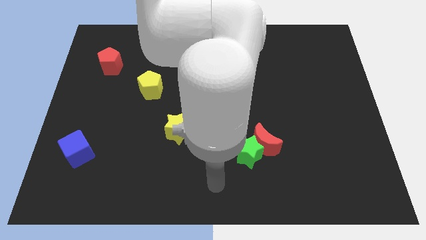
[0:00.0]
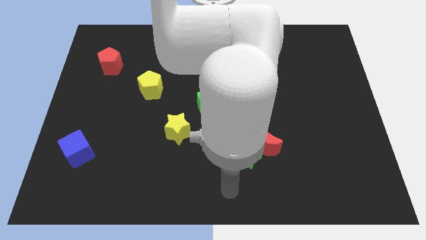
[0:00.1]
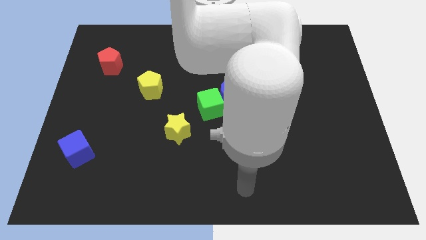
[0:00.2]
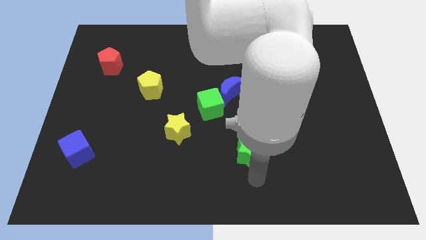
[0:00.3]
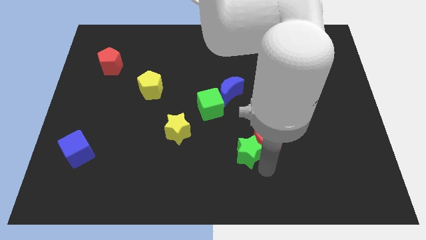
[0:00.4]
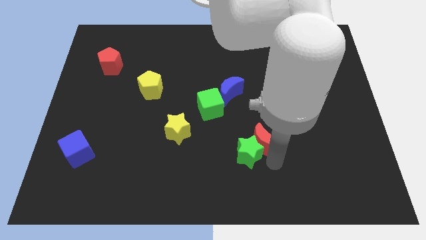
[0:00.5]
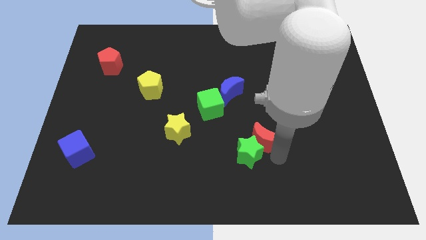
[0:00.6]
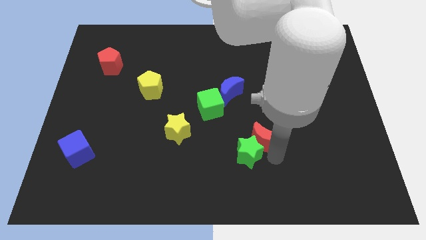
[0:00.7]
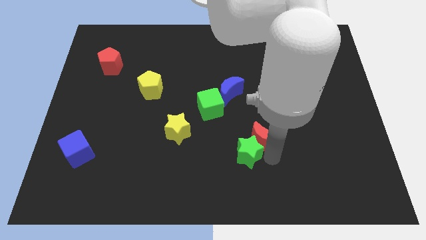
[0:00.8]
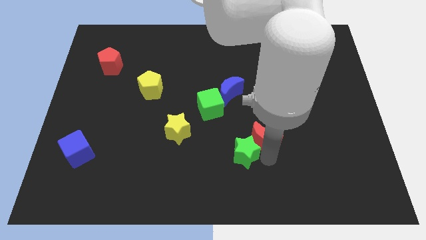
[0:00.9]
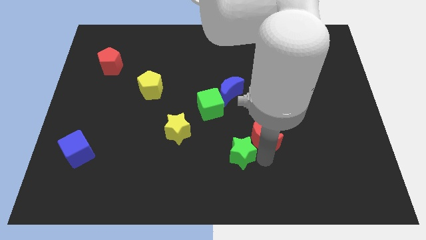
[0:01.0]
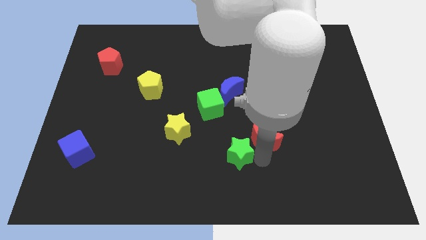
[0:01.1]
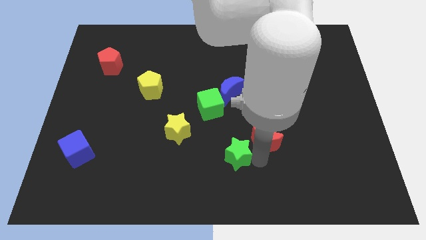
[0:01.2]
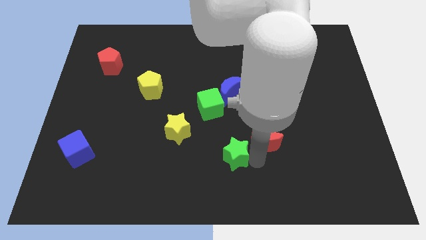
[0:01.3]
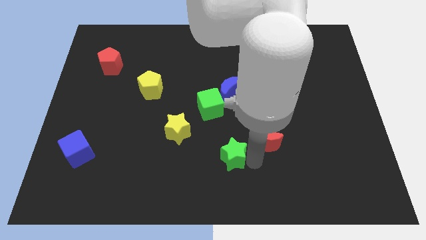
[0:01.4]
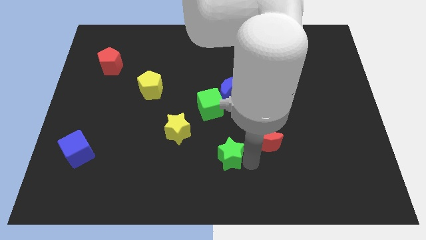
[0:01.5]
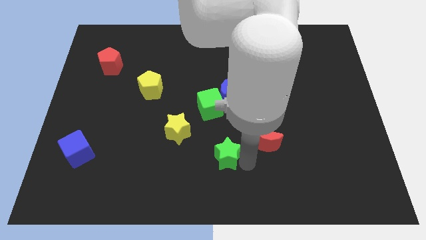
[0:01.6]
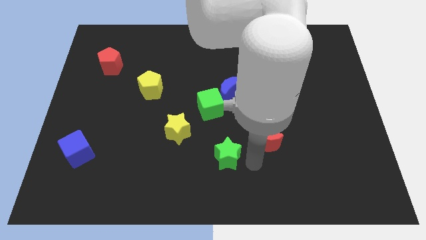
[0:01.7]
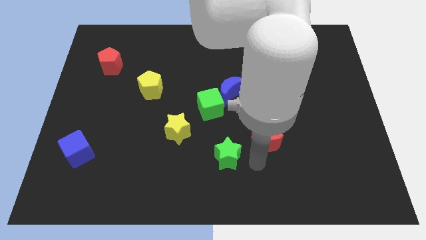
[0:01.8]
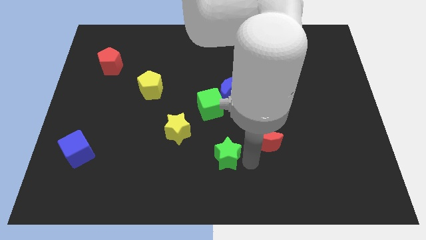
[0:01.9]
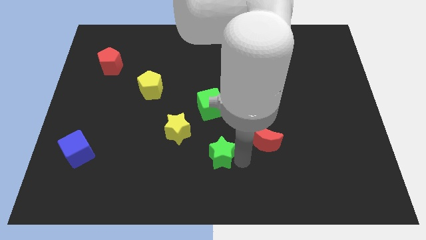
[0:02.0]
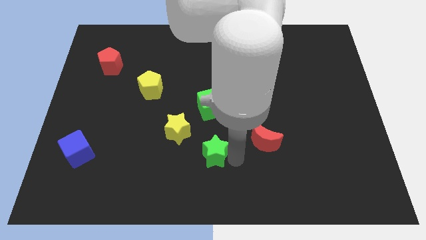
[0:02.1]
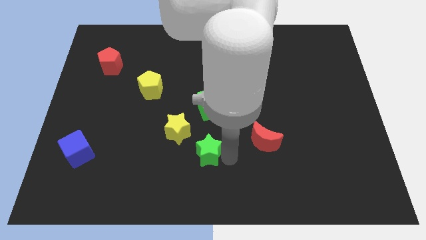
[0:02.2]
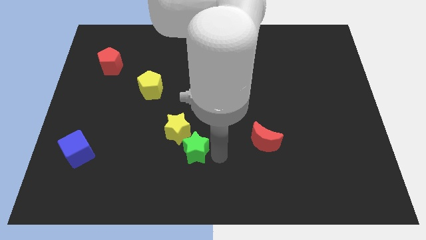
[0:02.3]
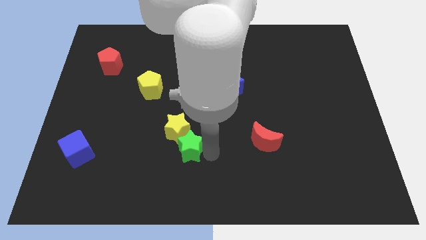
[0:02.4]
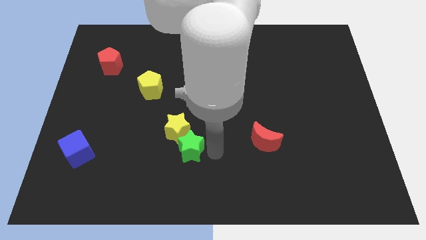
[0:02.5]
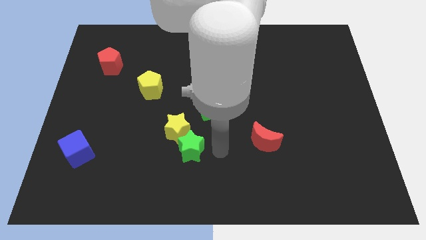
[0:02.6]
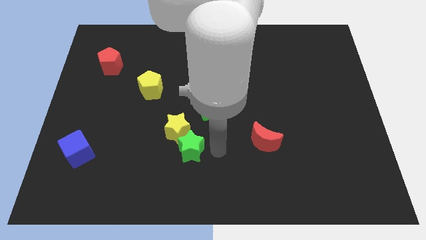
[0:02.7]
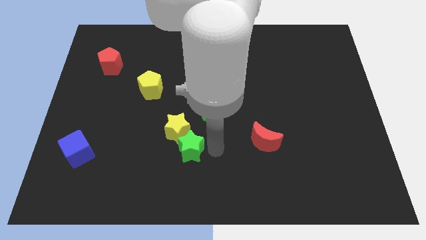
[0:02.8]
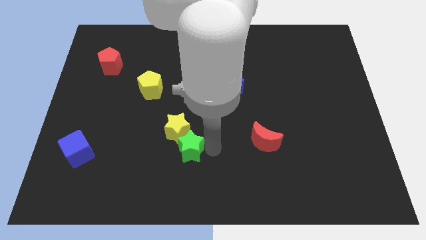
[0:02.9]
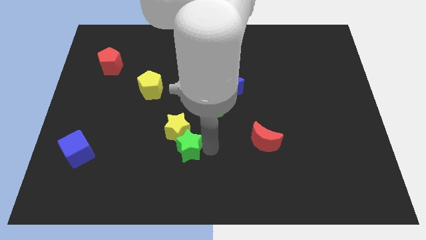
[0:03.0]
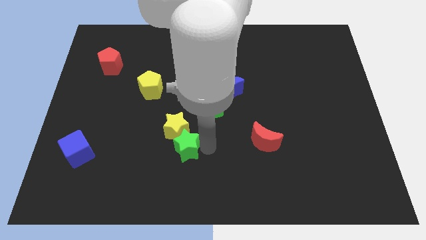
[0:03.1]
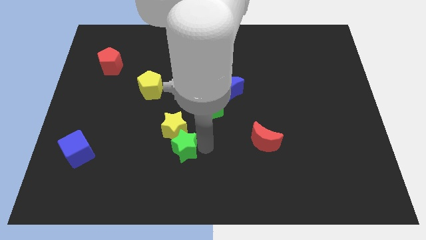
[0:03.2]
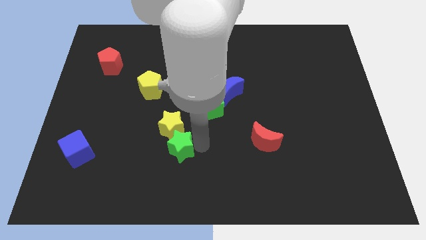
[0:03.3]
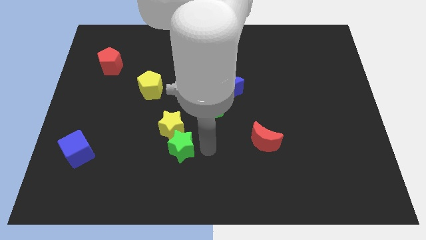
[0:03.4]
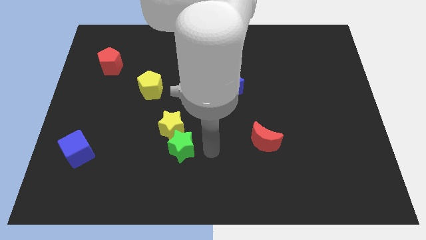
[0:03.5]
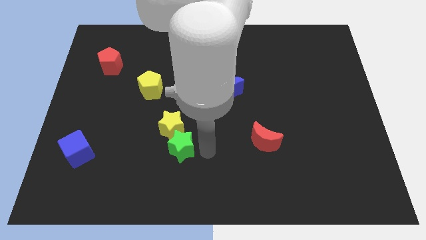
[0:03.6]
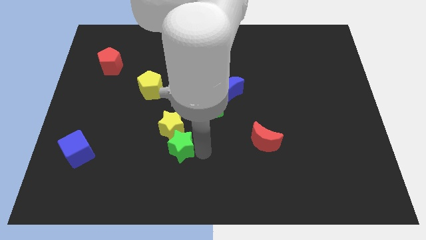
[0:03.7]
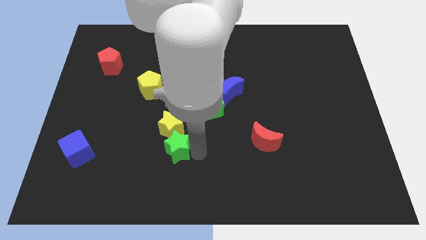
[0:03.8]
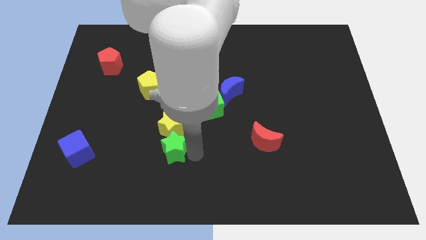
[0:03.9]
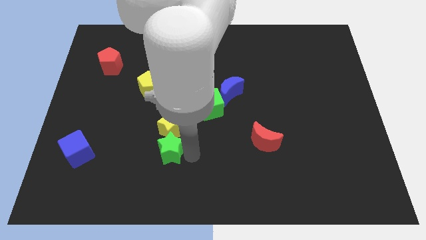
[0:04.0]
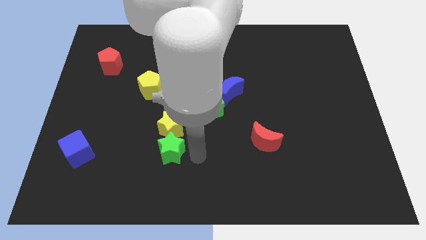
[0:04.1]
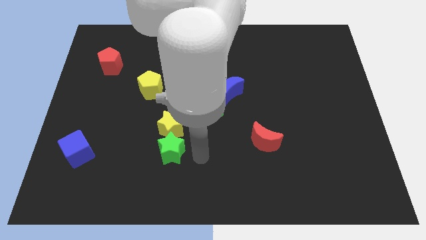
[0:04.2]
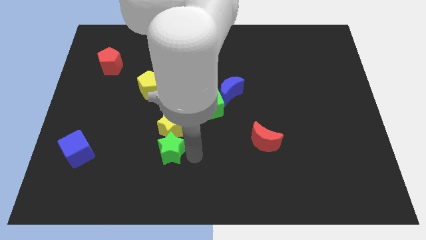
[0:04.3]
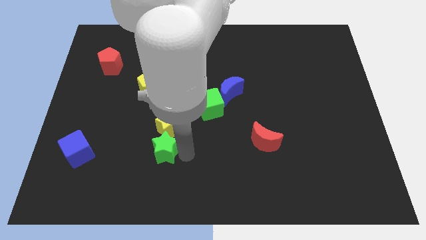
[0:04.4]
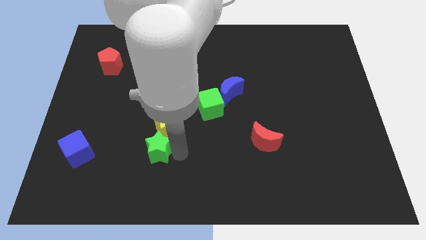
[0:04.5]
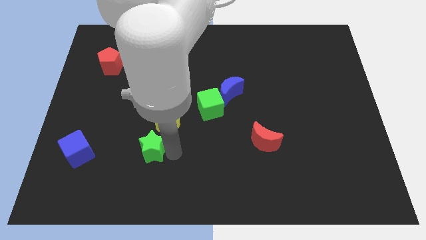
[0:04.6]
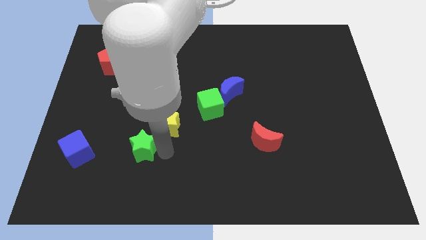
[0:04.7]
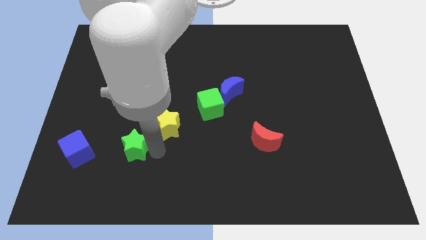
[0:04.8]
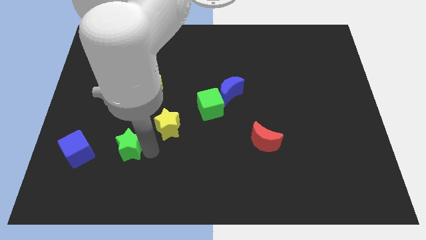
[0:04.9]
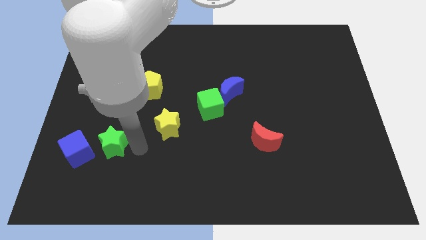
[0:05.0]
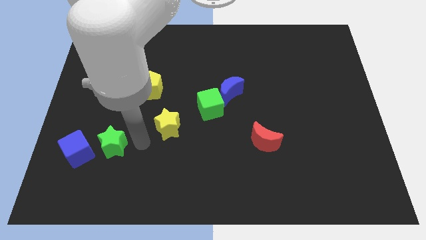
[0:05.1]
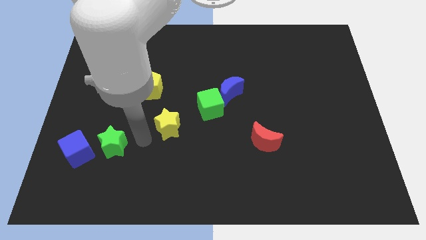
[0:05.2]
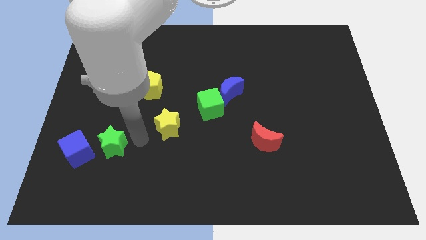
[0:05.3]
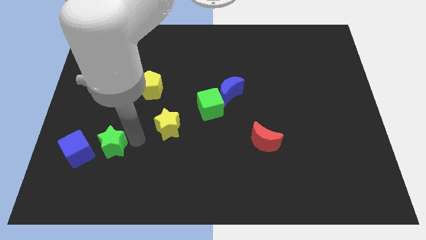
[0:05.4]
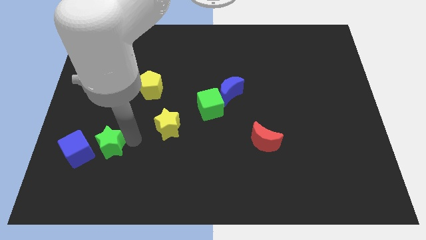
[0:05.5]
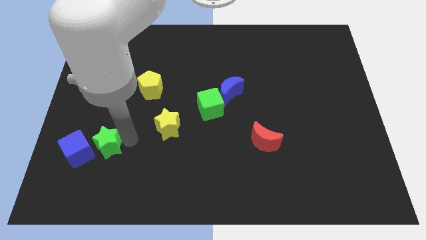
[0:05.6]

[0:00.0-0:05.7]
put the green star close to the blue cube

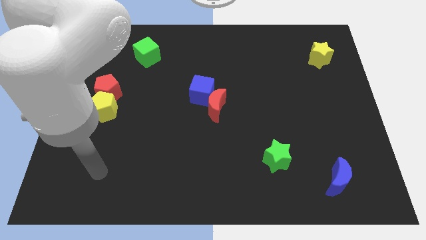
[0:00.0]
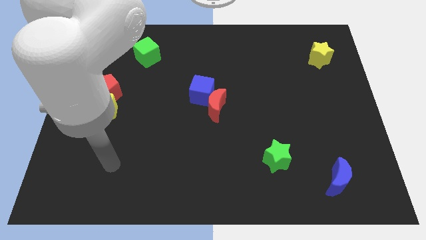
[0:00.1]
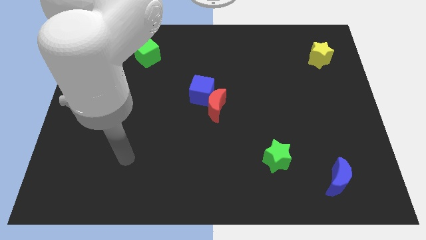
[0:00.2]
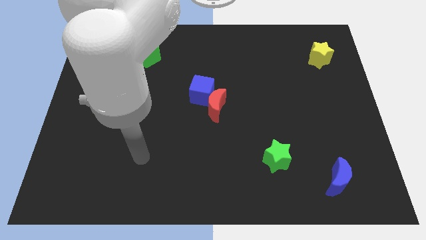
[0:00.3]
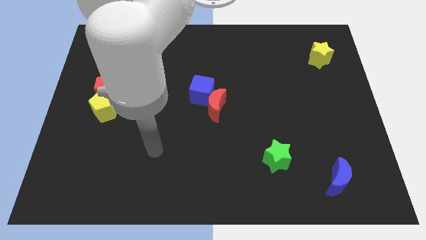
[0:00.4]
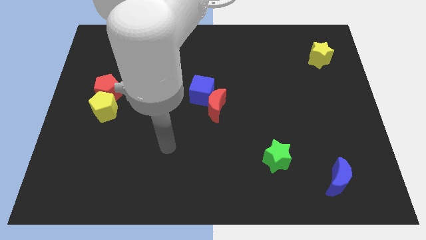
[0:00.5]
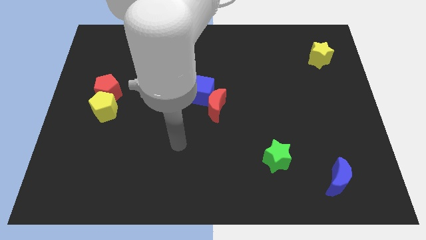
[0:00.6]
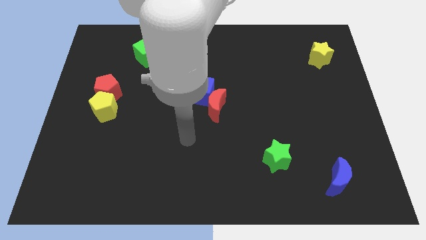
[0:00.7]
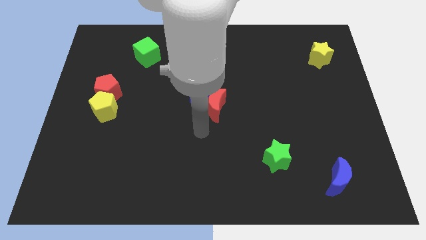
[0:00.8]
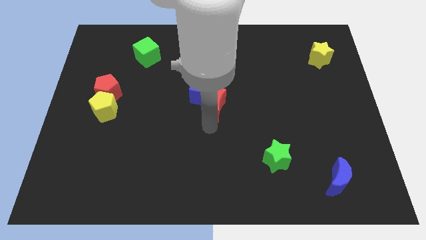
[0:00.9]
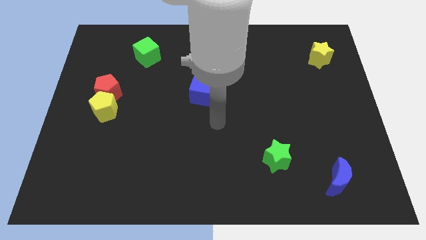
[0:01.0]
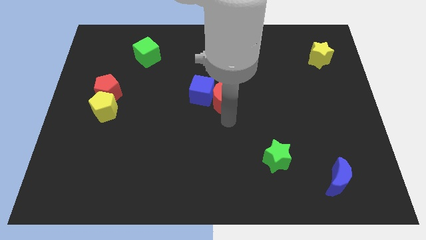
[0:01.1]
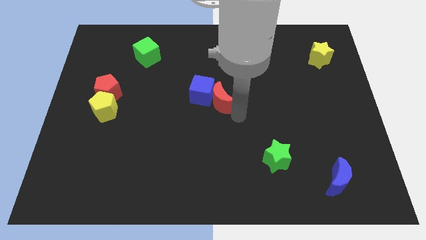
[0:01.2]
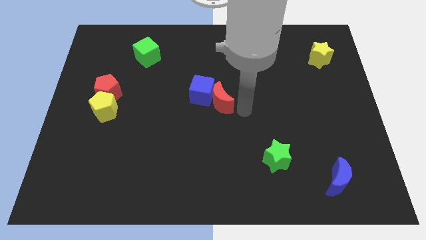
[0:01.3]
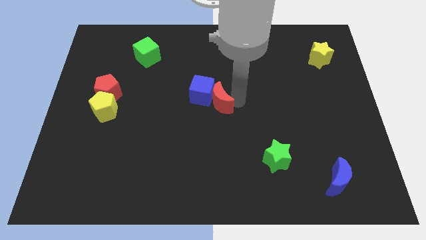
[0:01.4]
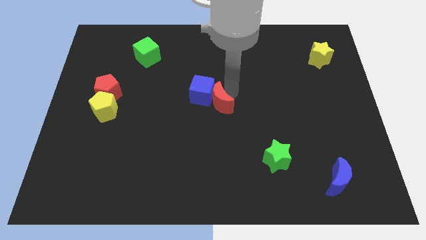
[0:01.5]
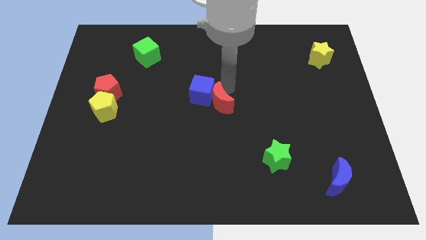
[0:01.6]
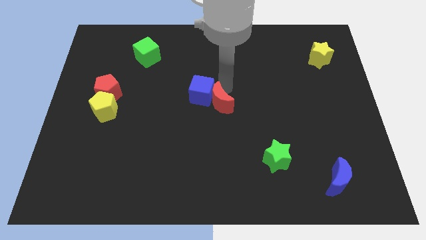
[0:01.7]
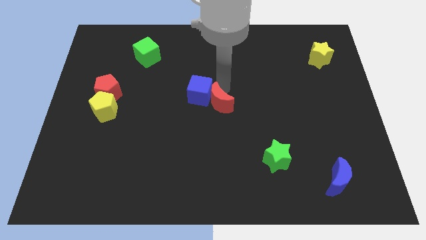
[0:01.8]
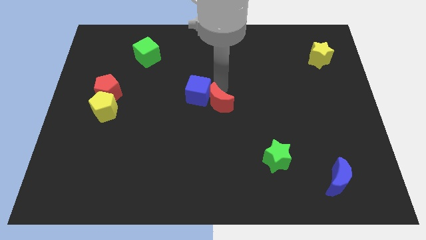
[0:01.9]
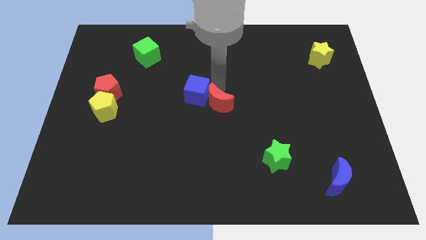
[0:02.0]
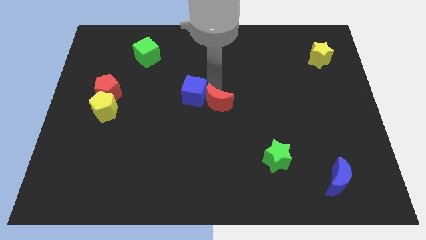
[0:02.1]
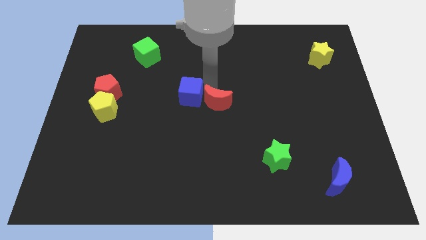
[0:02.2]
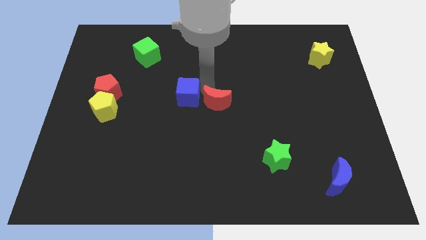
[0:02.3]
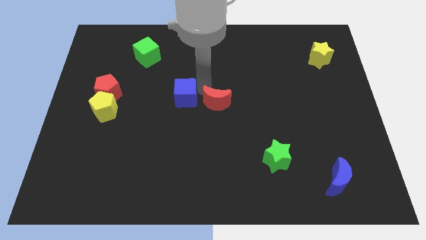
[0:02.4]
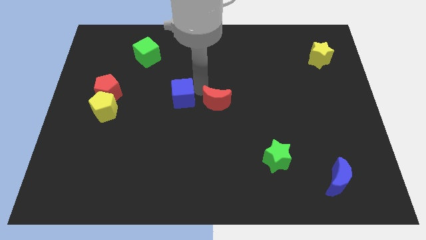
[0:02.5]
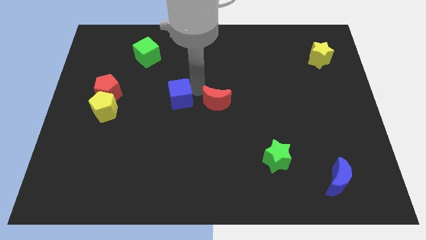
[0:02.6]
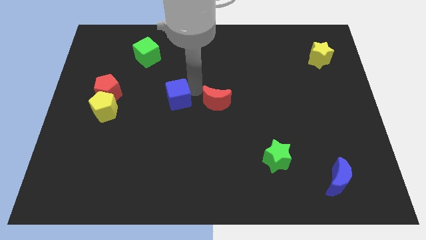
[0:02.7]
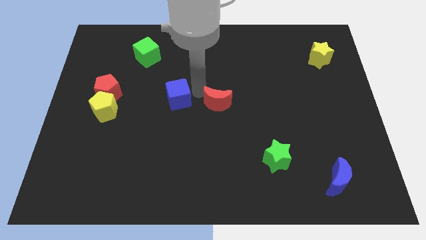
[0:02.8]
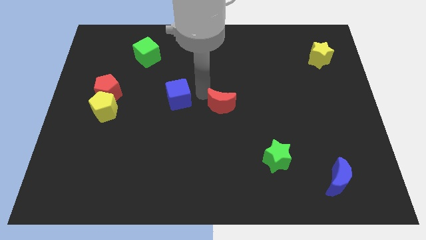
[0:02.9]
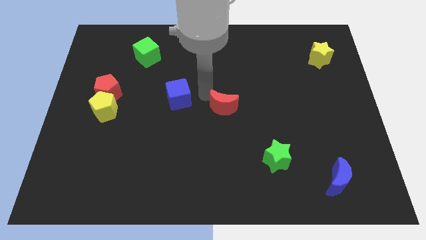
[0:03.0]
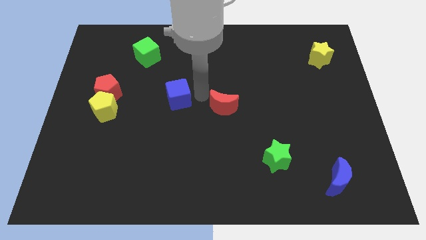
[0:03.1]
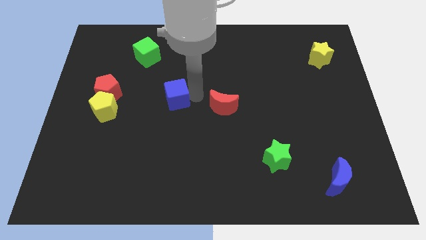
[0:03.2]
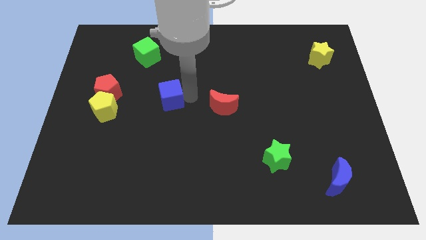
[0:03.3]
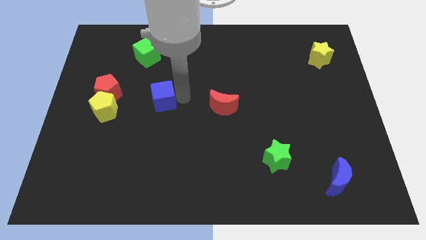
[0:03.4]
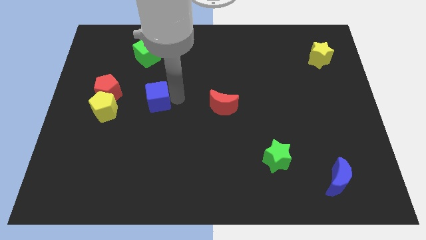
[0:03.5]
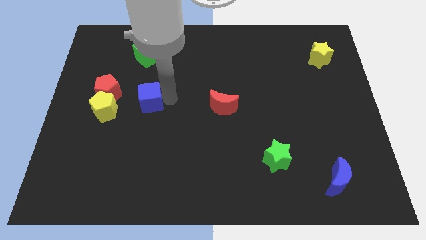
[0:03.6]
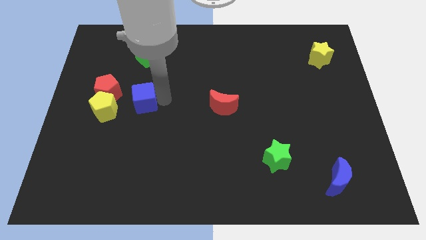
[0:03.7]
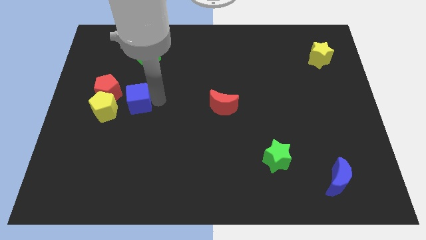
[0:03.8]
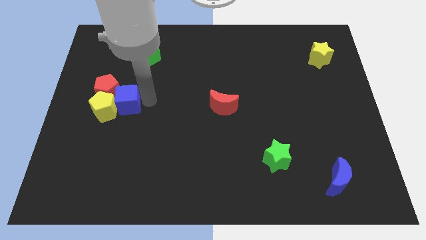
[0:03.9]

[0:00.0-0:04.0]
slide the blue cube next to the yellow pentagon
